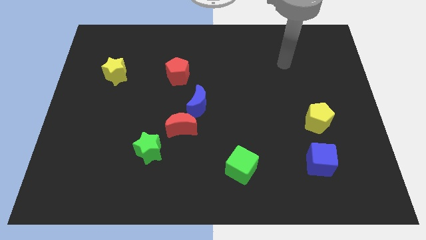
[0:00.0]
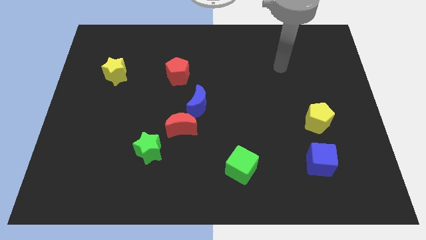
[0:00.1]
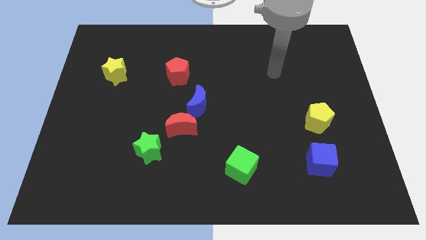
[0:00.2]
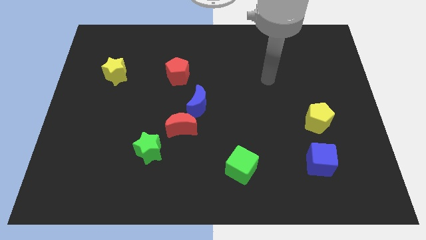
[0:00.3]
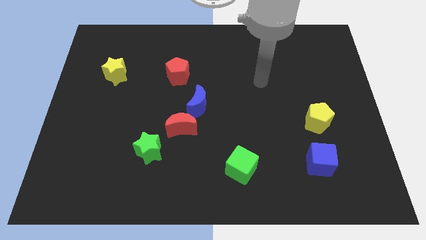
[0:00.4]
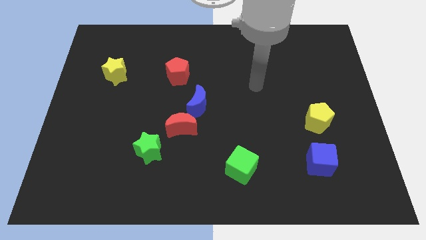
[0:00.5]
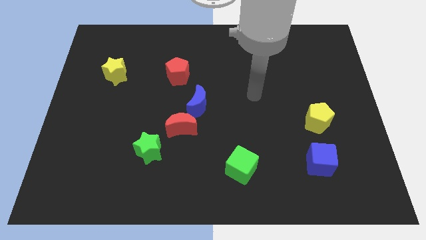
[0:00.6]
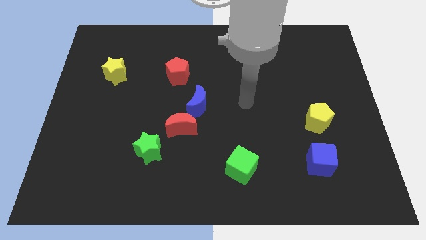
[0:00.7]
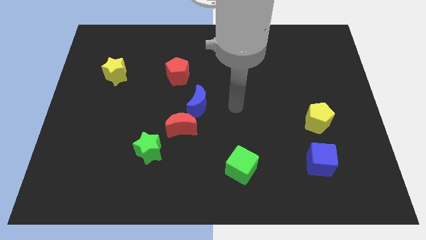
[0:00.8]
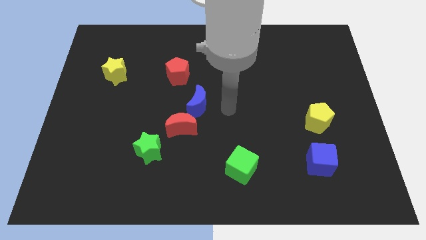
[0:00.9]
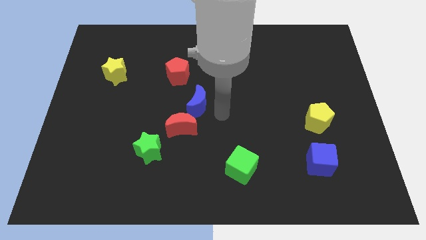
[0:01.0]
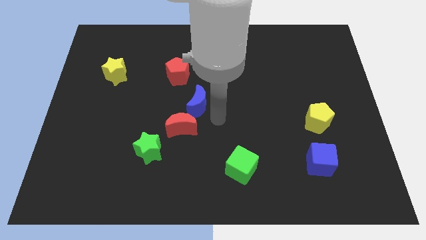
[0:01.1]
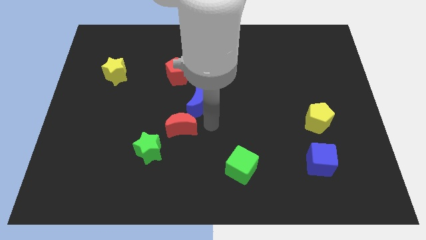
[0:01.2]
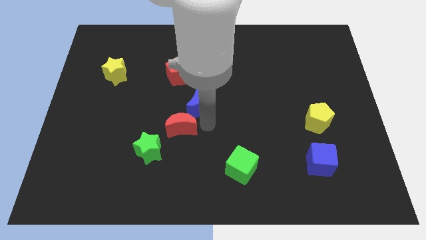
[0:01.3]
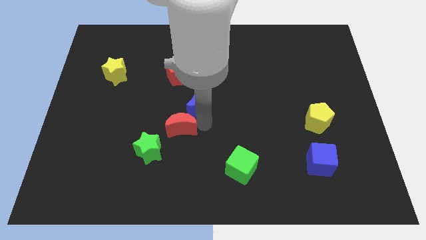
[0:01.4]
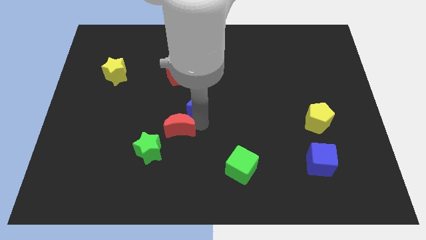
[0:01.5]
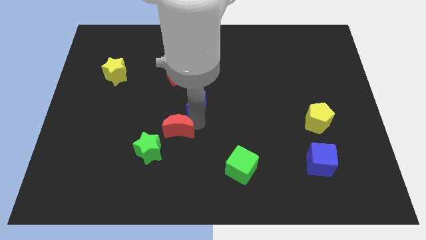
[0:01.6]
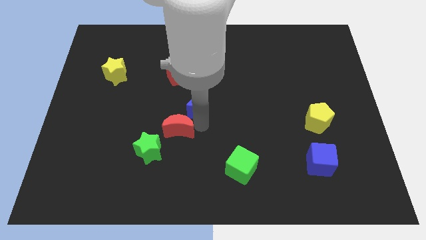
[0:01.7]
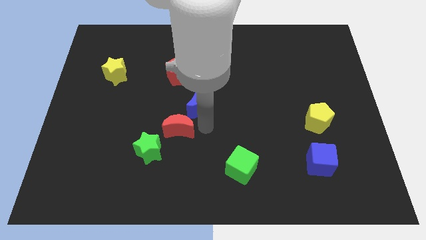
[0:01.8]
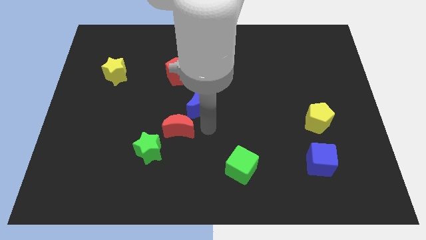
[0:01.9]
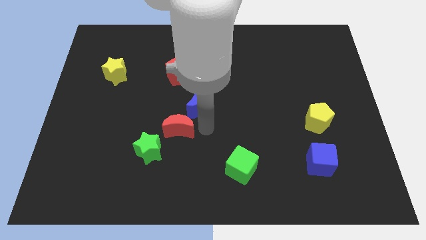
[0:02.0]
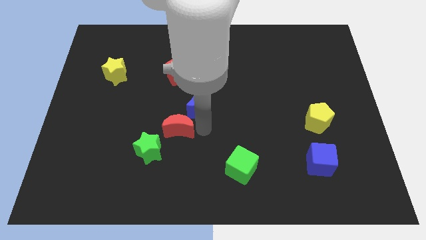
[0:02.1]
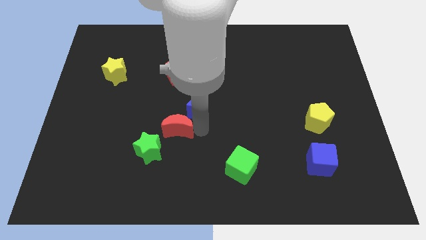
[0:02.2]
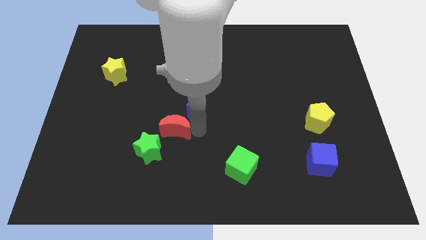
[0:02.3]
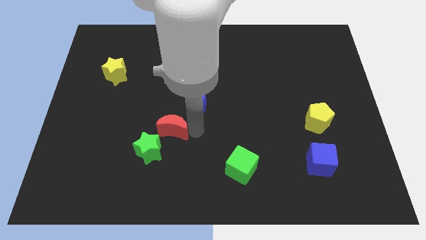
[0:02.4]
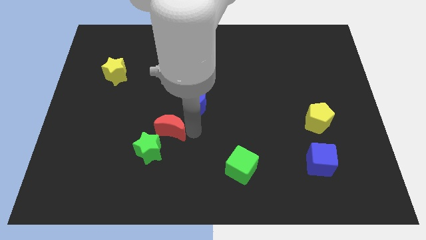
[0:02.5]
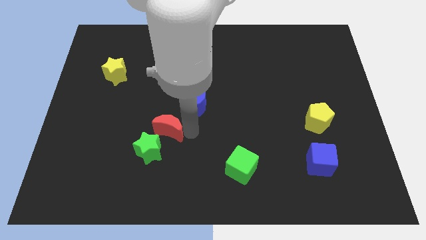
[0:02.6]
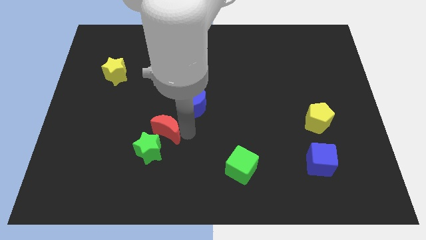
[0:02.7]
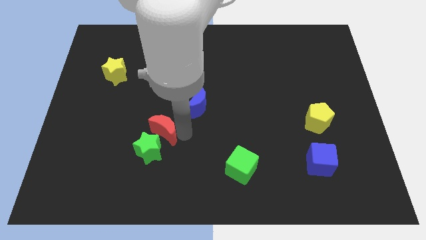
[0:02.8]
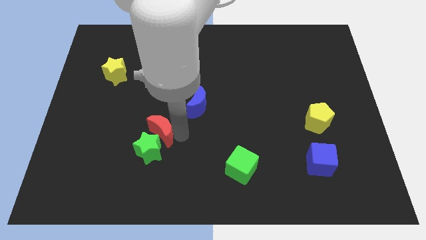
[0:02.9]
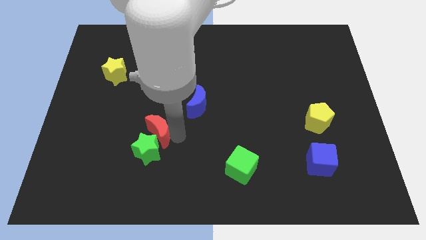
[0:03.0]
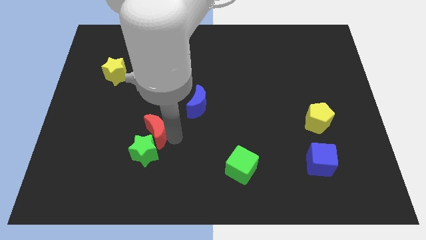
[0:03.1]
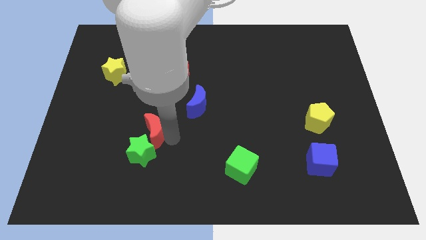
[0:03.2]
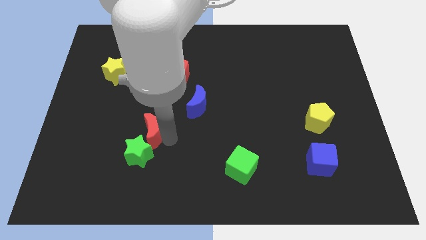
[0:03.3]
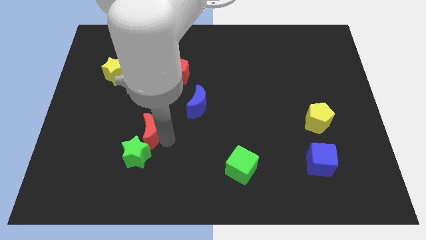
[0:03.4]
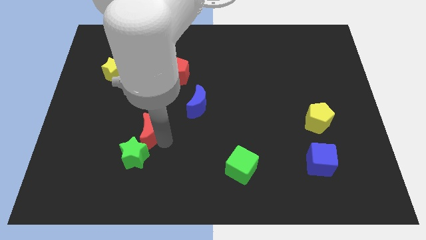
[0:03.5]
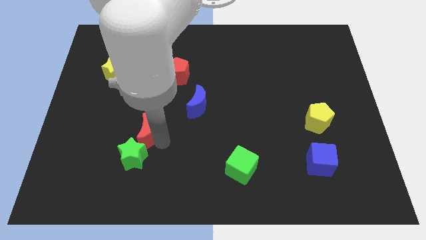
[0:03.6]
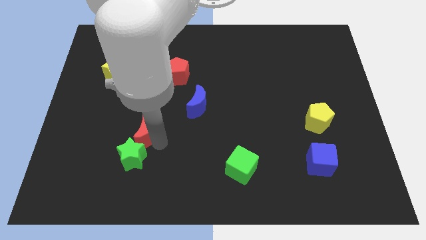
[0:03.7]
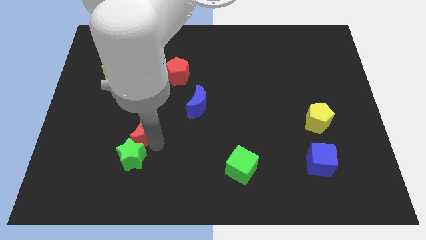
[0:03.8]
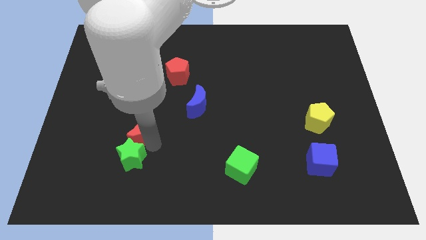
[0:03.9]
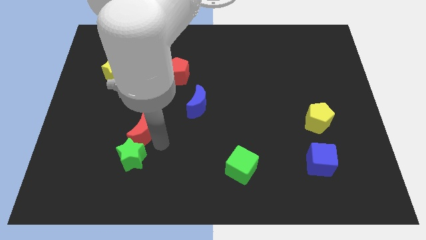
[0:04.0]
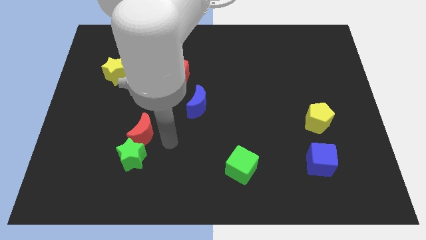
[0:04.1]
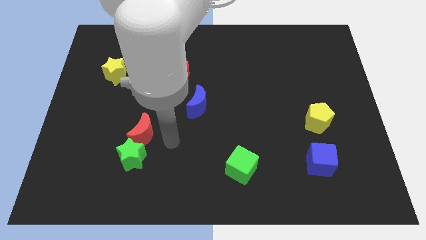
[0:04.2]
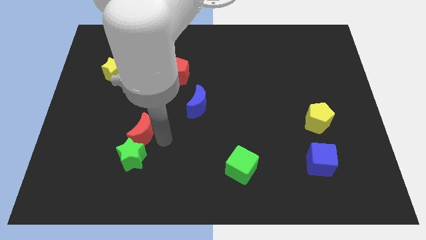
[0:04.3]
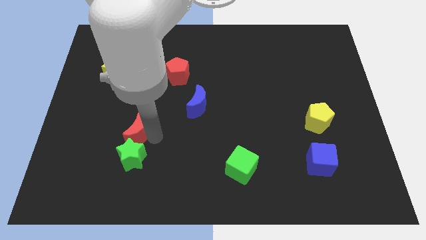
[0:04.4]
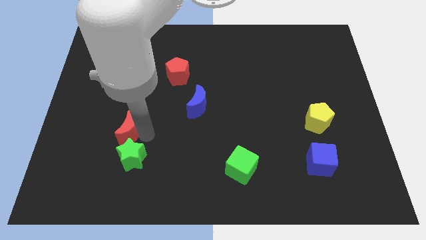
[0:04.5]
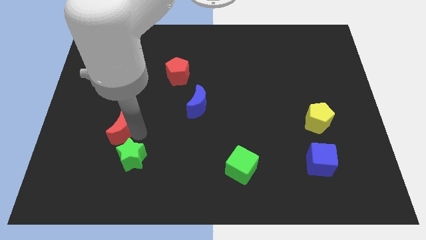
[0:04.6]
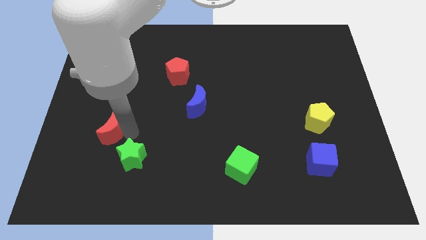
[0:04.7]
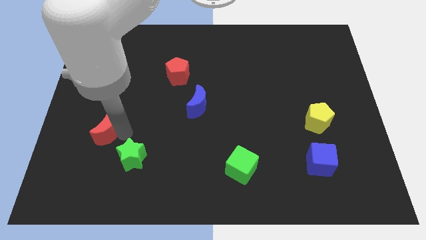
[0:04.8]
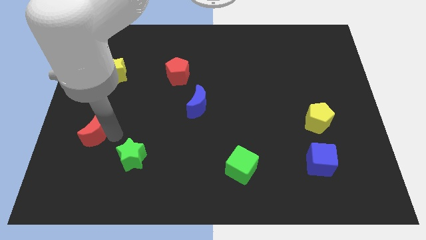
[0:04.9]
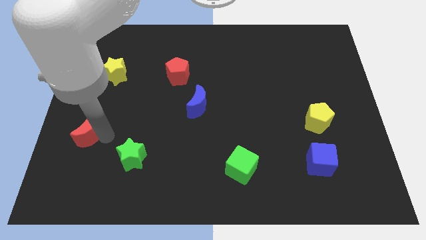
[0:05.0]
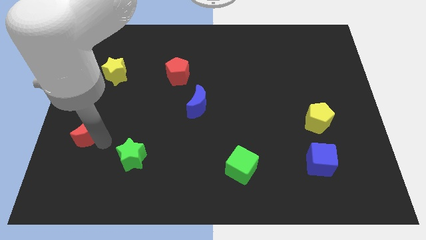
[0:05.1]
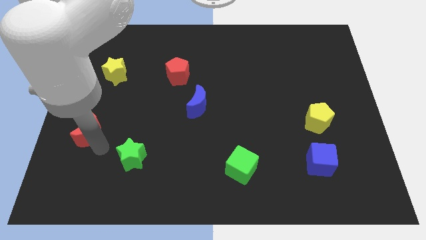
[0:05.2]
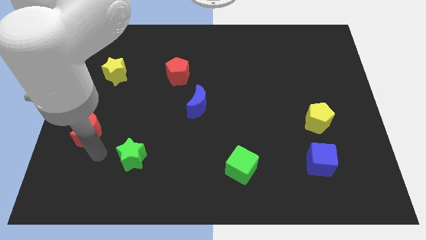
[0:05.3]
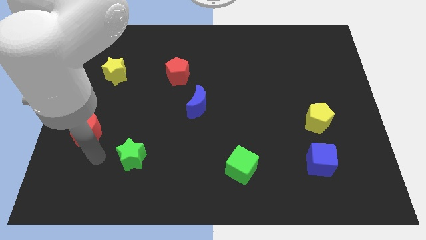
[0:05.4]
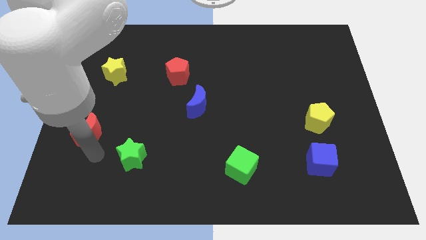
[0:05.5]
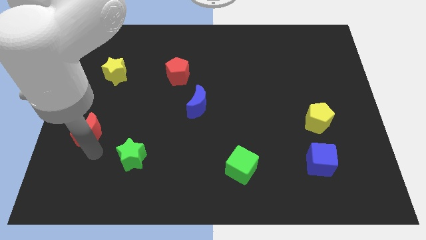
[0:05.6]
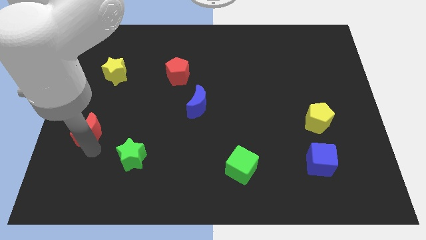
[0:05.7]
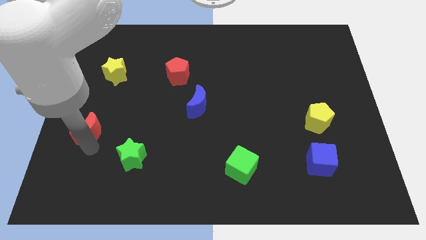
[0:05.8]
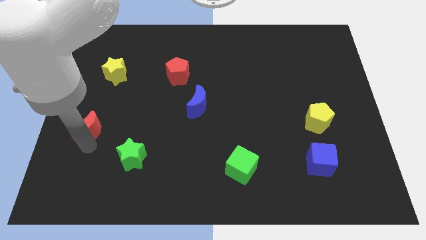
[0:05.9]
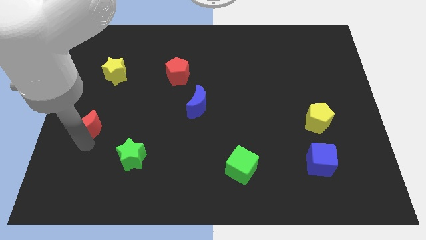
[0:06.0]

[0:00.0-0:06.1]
push the red moon to the center left

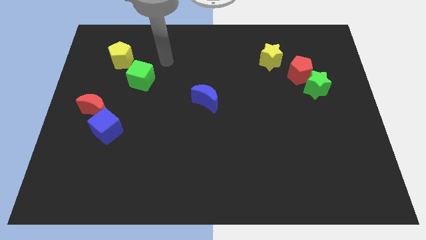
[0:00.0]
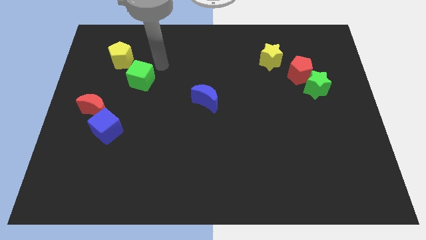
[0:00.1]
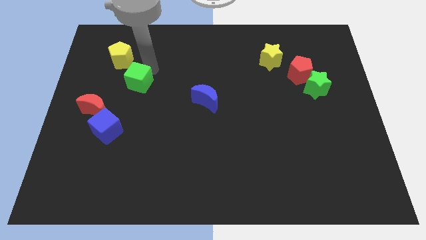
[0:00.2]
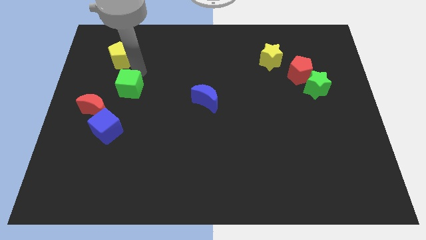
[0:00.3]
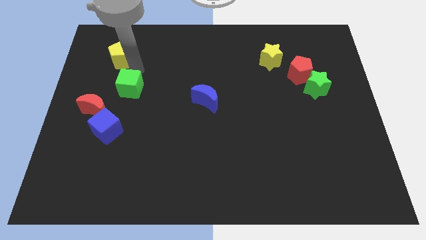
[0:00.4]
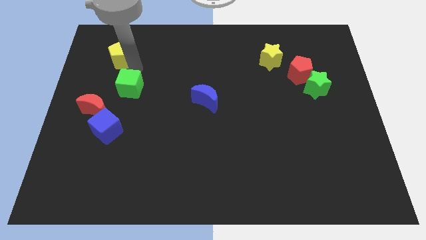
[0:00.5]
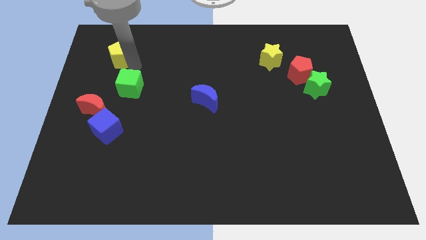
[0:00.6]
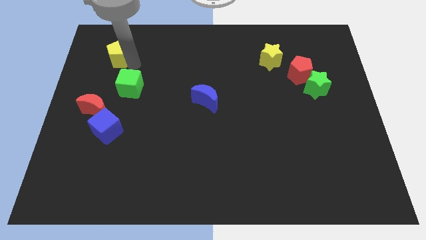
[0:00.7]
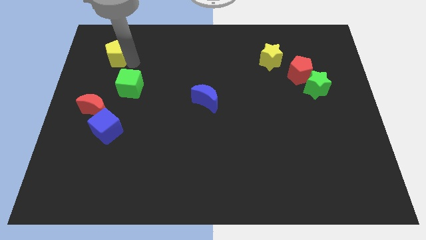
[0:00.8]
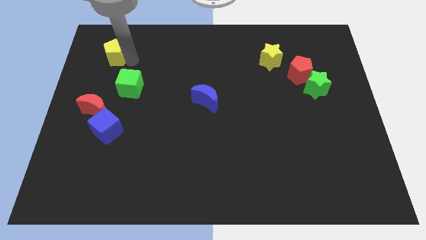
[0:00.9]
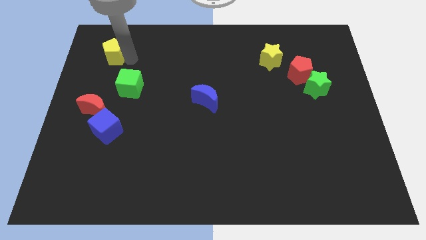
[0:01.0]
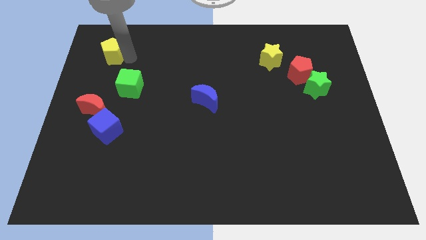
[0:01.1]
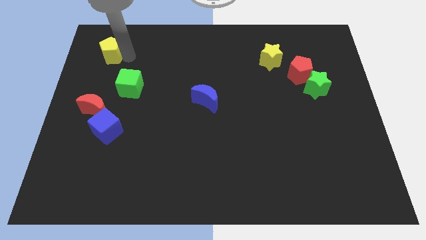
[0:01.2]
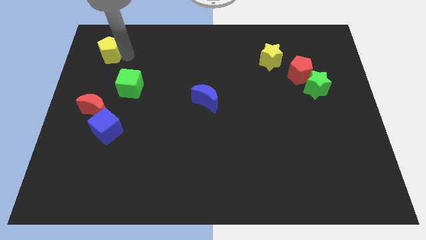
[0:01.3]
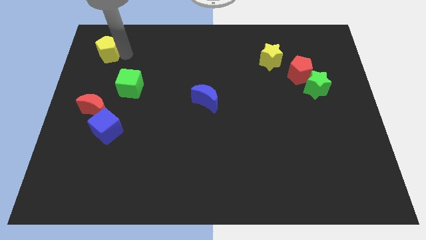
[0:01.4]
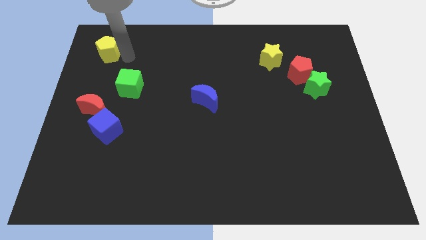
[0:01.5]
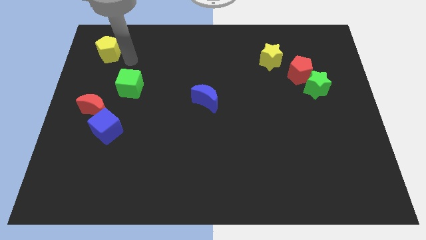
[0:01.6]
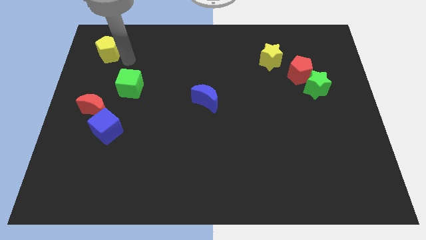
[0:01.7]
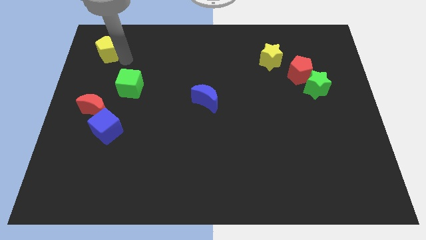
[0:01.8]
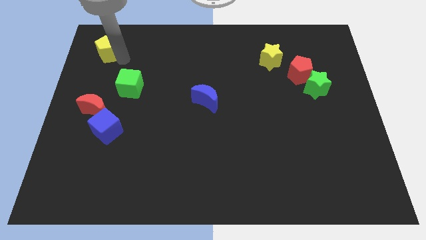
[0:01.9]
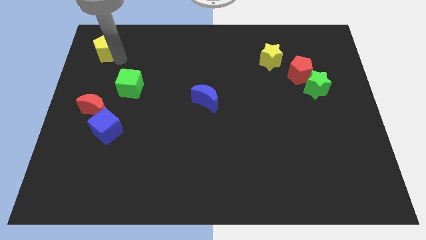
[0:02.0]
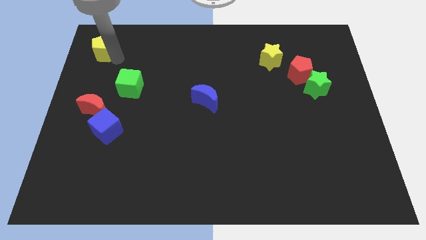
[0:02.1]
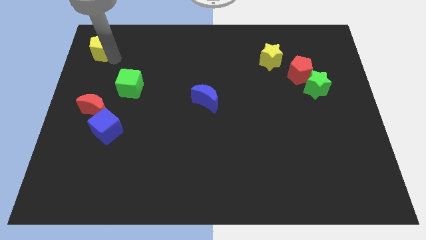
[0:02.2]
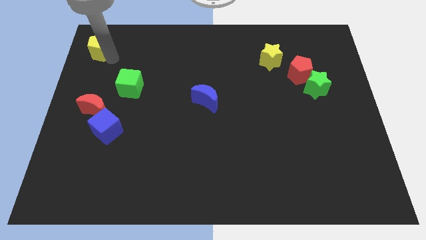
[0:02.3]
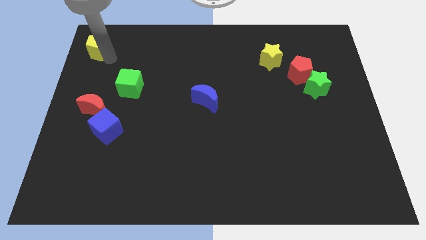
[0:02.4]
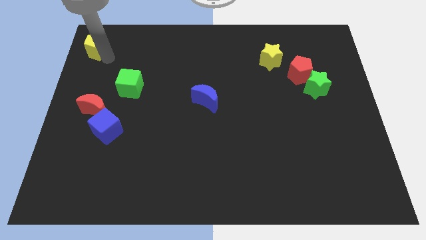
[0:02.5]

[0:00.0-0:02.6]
push the yellow pentagon to the top left of the board
